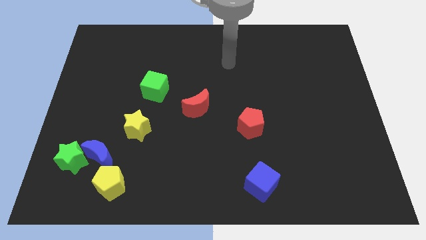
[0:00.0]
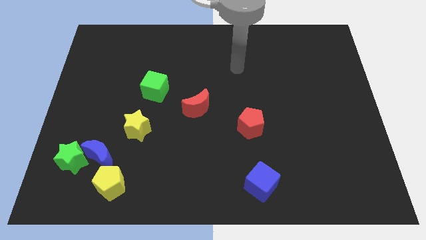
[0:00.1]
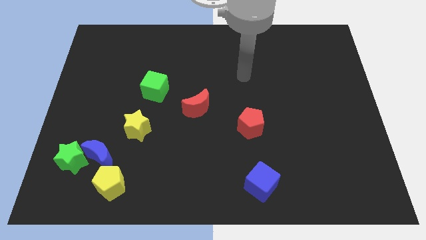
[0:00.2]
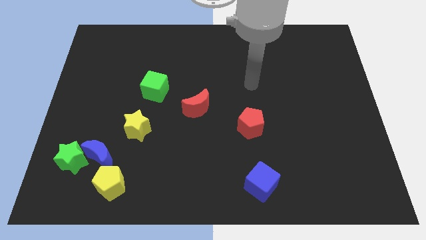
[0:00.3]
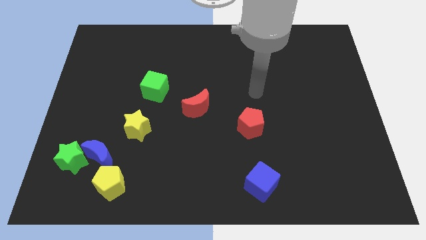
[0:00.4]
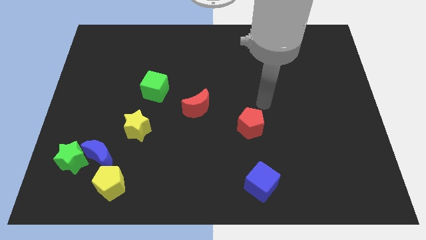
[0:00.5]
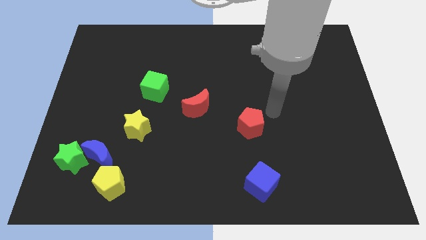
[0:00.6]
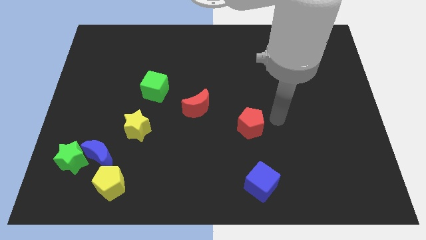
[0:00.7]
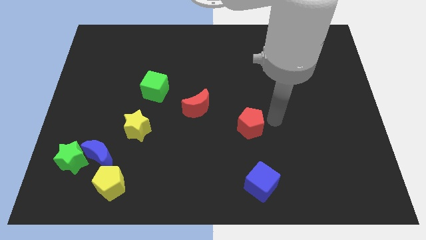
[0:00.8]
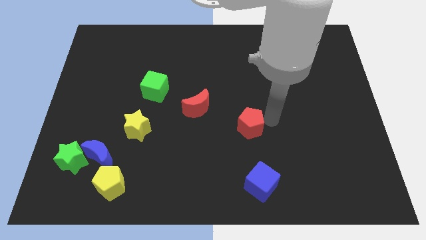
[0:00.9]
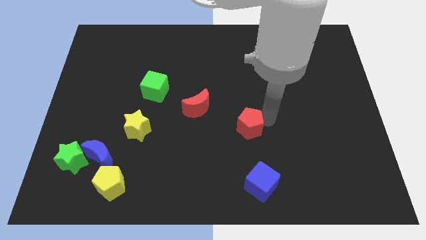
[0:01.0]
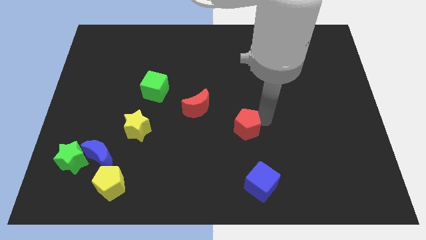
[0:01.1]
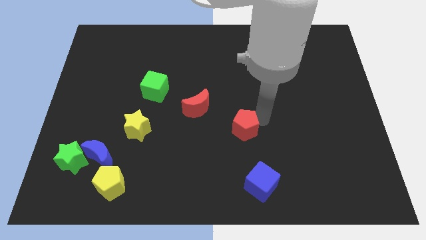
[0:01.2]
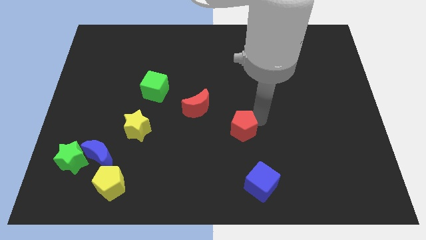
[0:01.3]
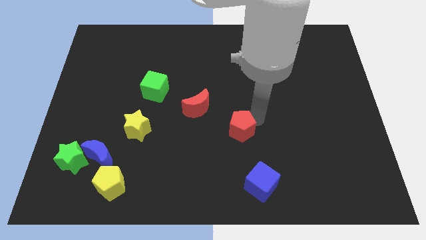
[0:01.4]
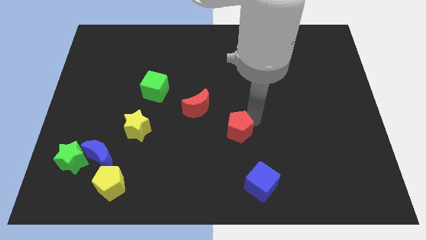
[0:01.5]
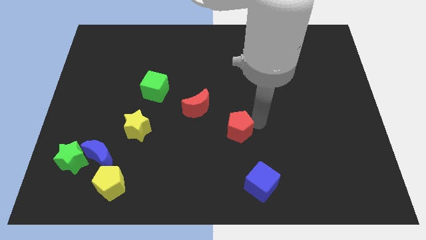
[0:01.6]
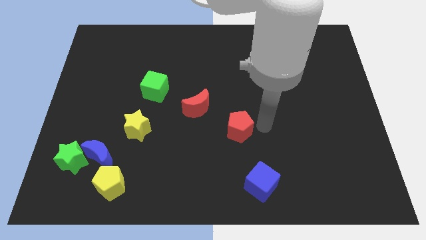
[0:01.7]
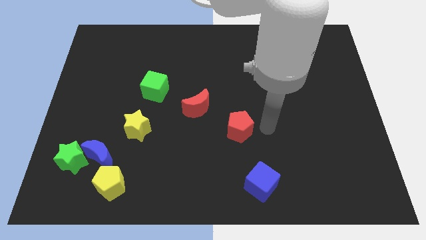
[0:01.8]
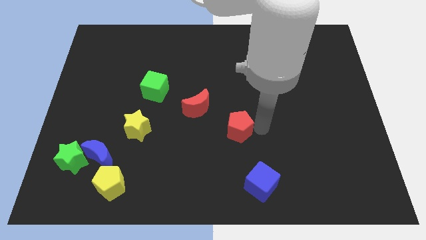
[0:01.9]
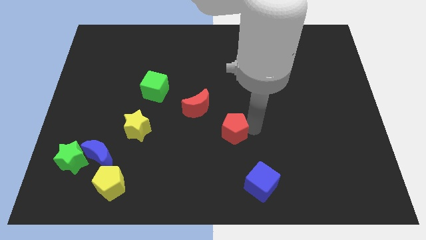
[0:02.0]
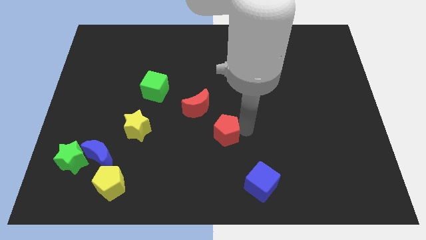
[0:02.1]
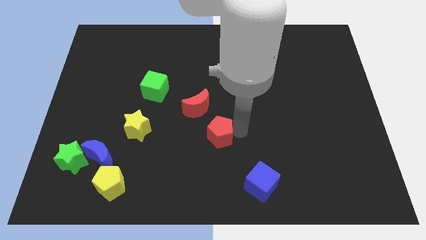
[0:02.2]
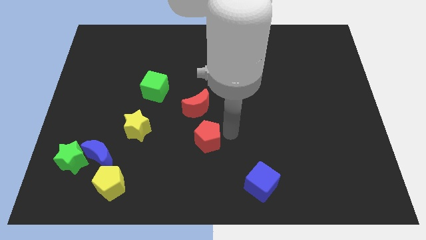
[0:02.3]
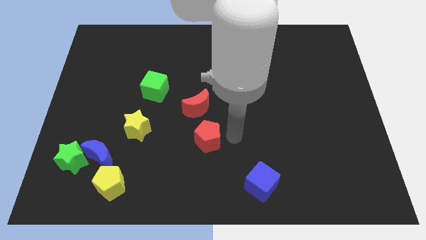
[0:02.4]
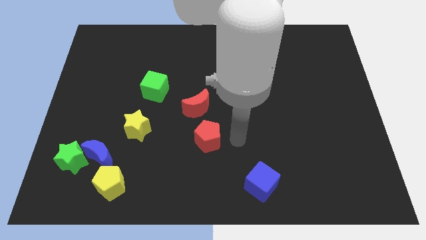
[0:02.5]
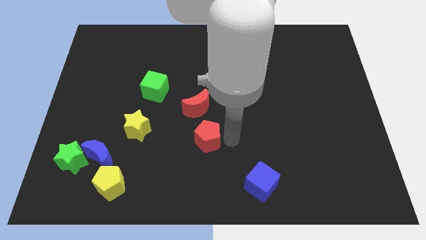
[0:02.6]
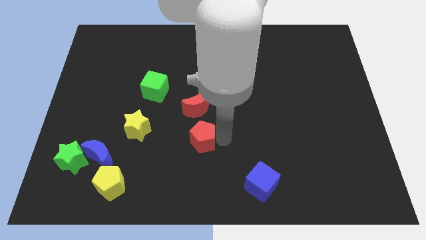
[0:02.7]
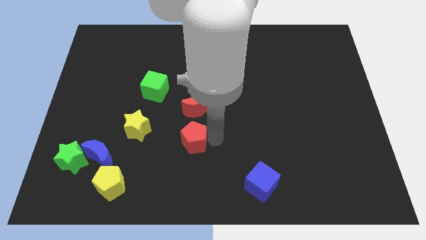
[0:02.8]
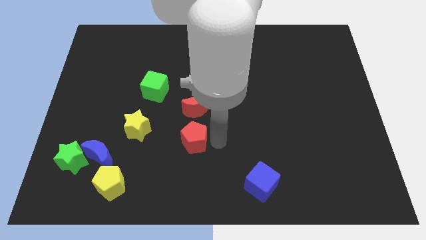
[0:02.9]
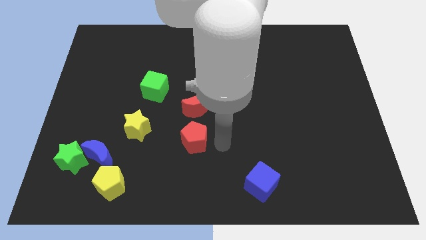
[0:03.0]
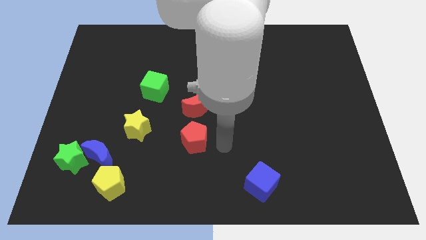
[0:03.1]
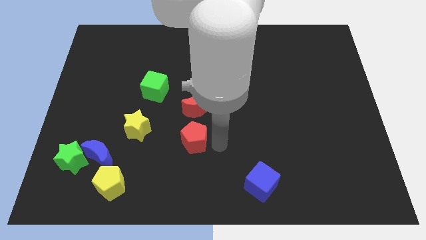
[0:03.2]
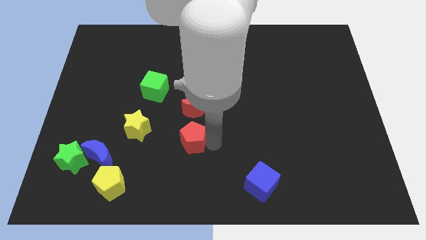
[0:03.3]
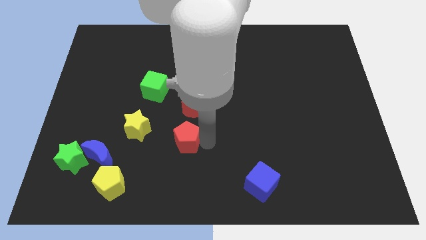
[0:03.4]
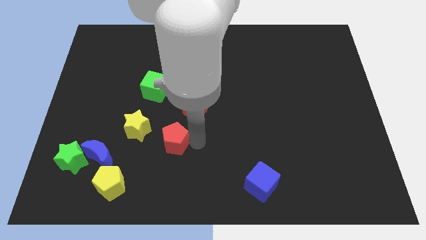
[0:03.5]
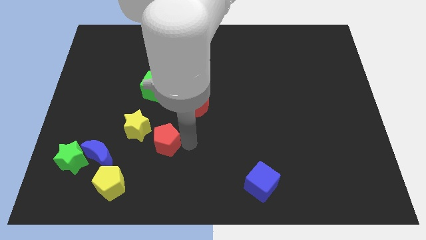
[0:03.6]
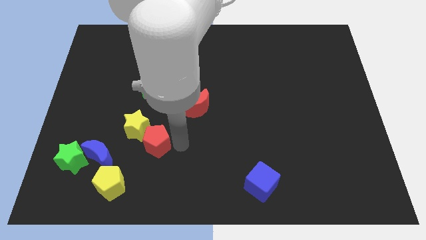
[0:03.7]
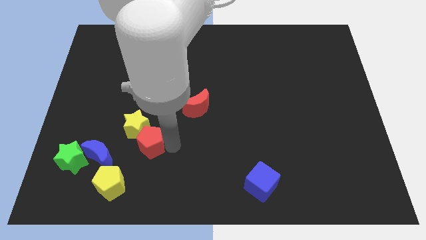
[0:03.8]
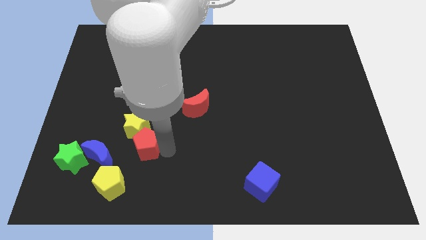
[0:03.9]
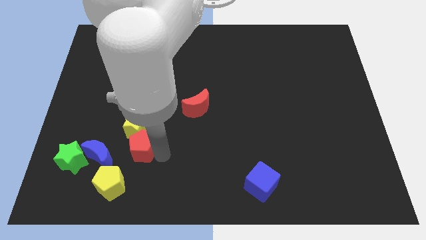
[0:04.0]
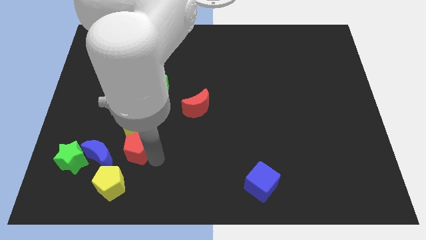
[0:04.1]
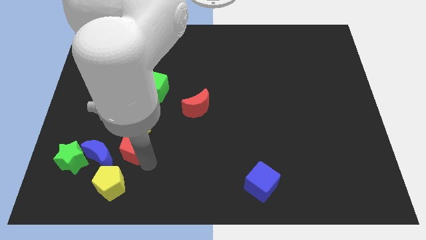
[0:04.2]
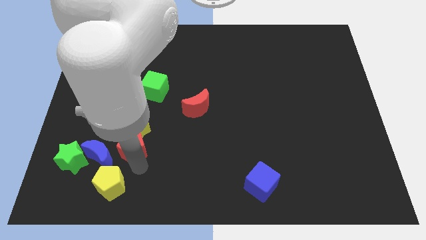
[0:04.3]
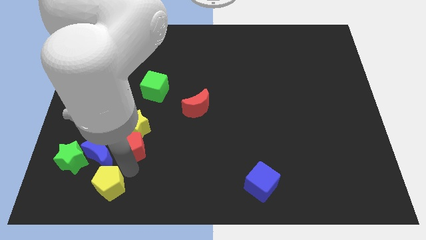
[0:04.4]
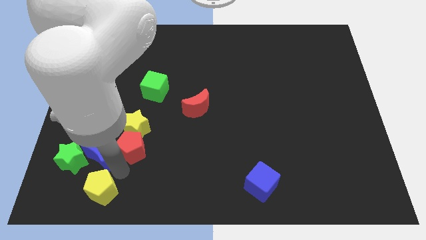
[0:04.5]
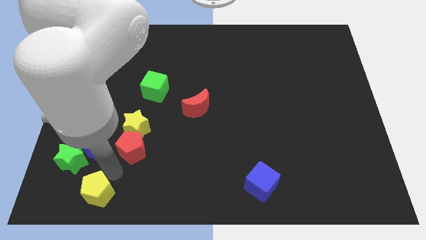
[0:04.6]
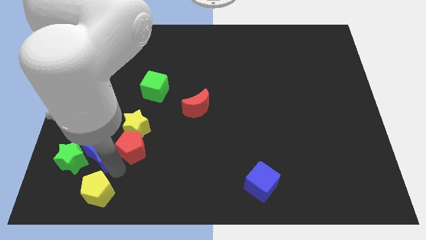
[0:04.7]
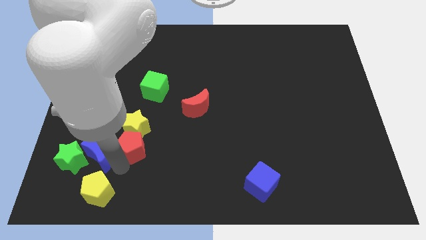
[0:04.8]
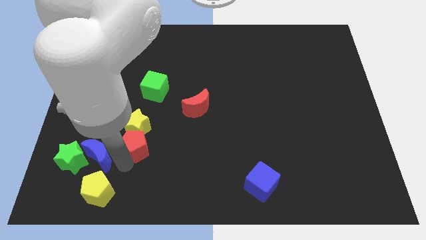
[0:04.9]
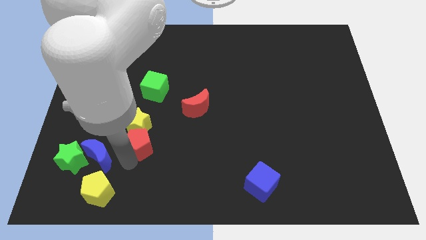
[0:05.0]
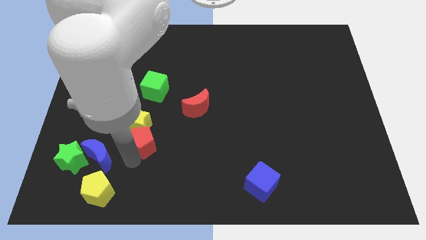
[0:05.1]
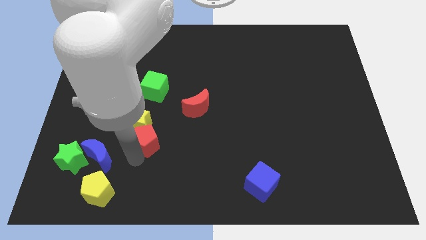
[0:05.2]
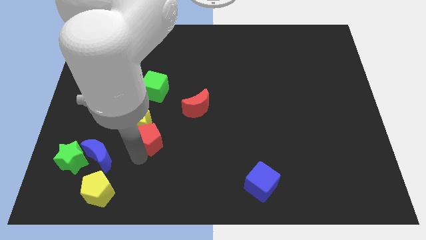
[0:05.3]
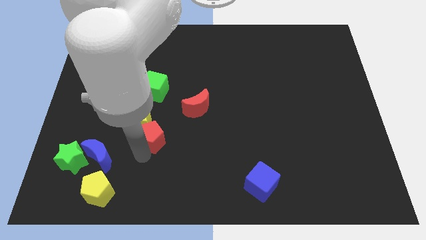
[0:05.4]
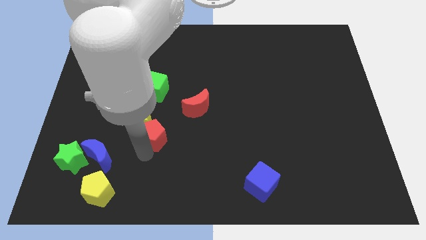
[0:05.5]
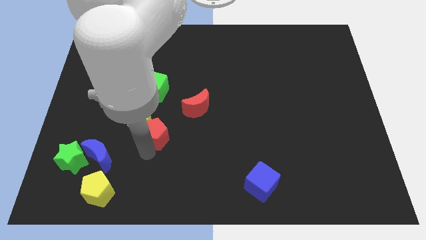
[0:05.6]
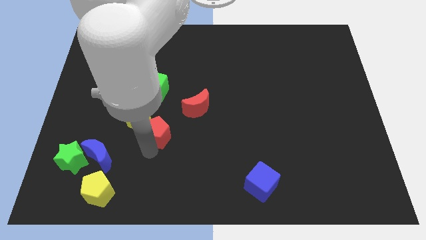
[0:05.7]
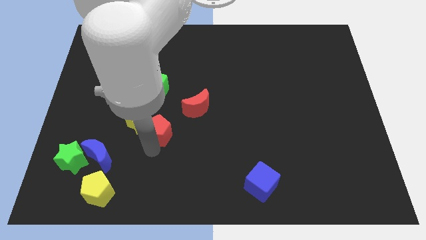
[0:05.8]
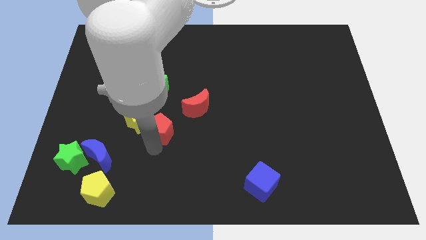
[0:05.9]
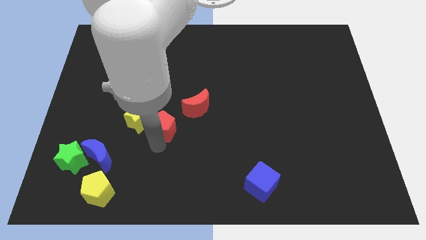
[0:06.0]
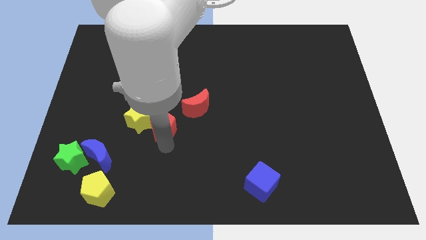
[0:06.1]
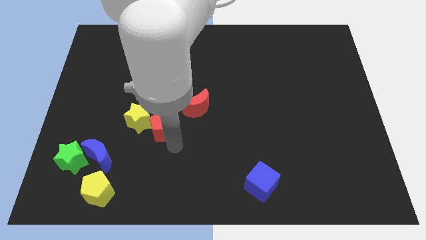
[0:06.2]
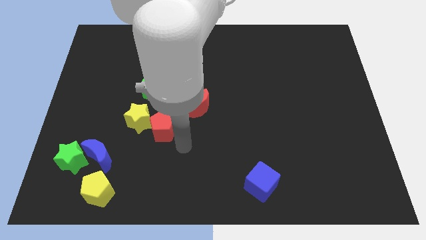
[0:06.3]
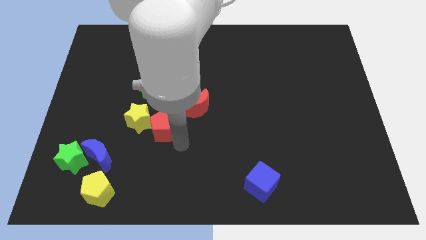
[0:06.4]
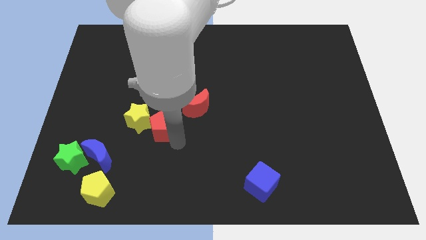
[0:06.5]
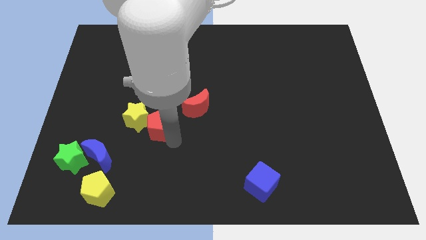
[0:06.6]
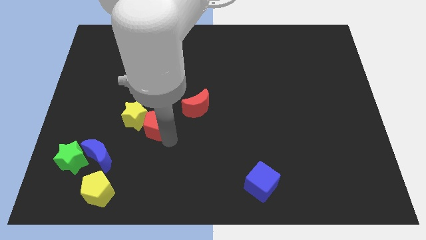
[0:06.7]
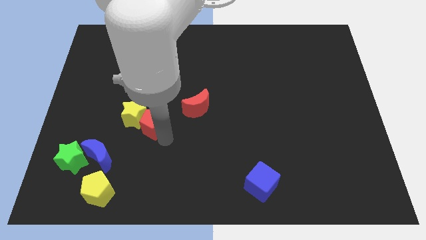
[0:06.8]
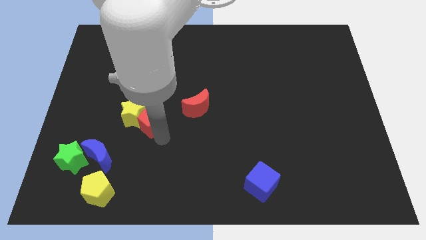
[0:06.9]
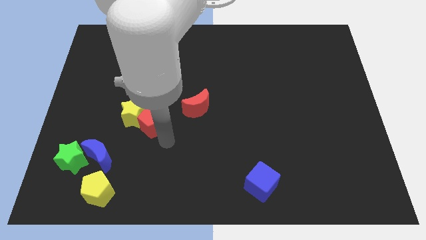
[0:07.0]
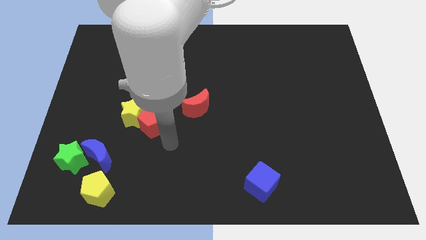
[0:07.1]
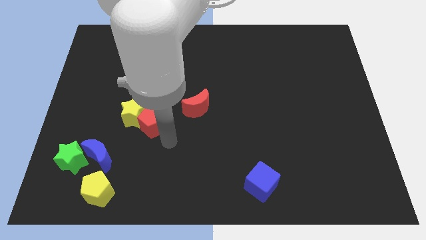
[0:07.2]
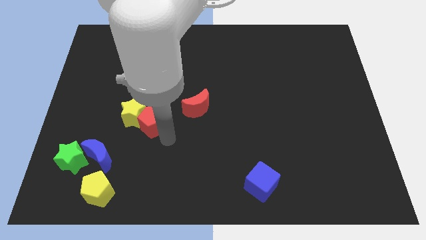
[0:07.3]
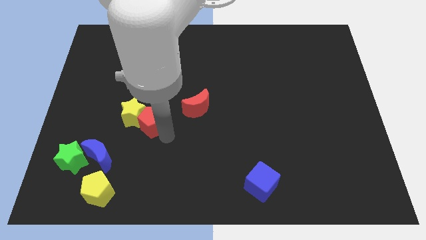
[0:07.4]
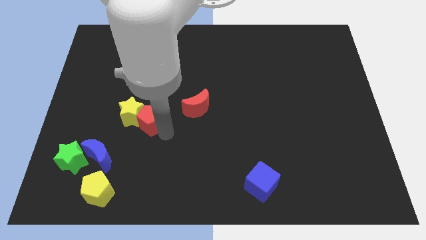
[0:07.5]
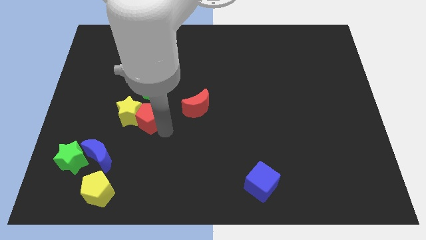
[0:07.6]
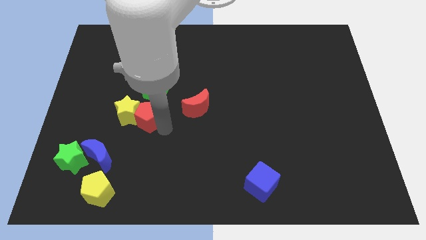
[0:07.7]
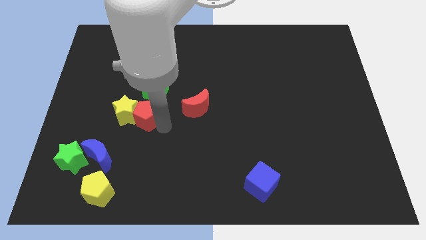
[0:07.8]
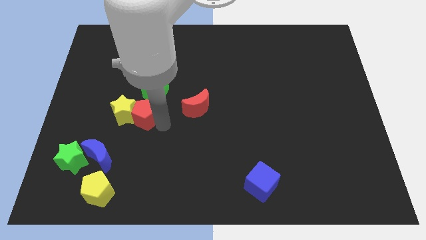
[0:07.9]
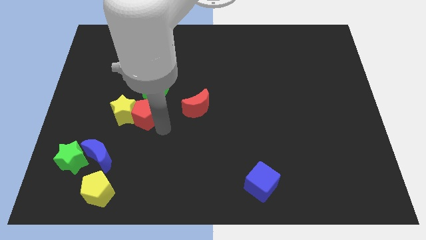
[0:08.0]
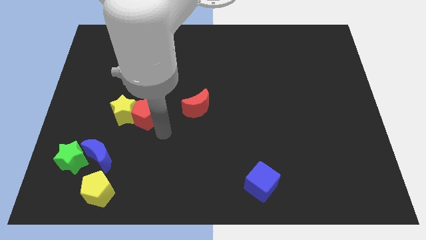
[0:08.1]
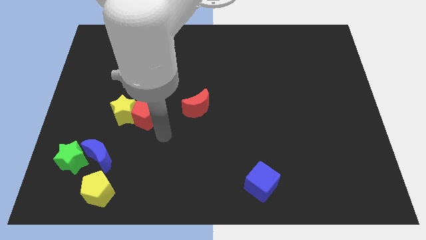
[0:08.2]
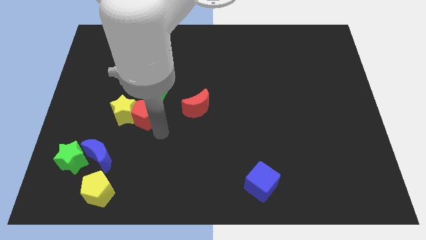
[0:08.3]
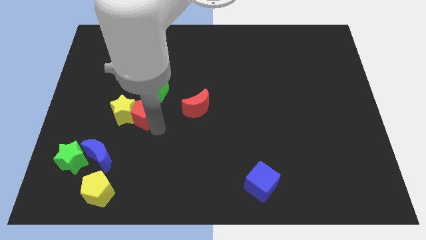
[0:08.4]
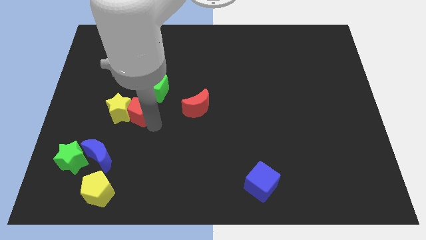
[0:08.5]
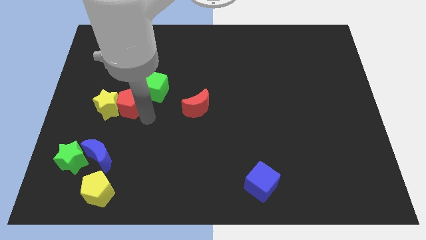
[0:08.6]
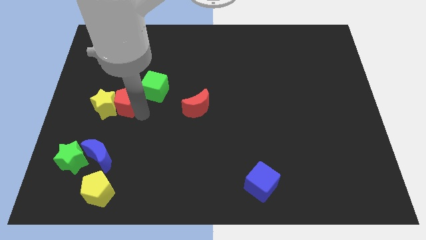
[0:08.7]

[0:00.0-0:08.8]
put the red pentagon to the left side of the green cube
